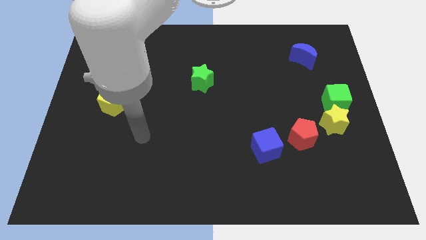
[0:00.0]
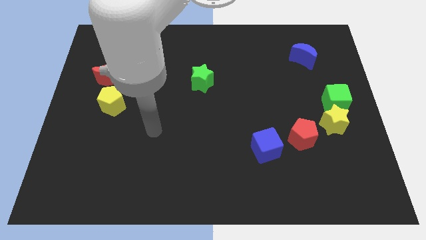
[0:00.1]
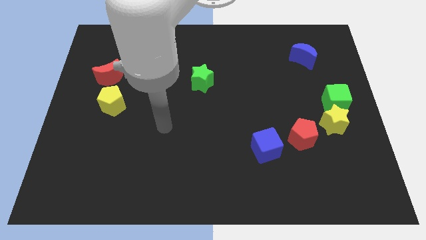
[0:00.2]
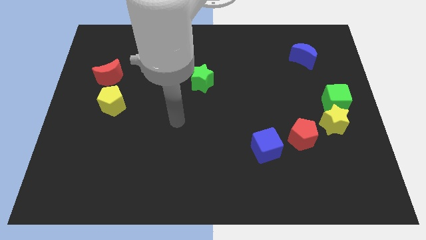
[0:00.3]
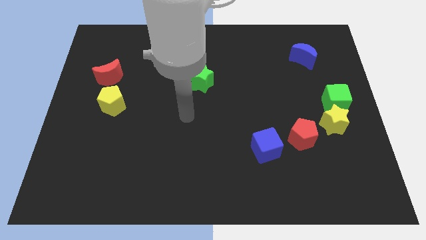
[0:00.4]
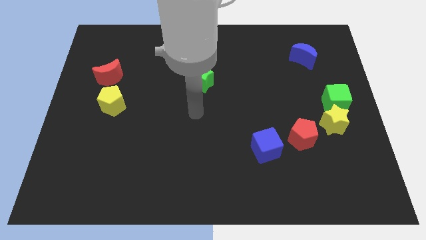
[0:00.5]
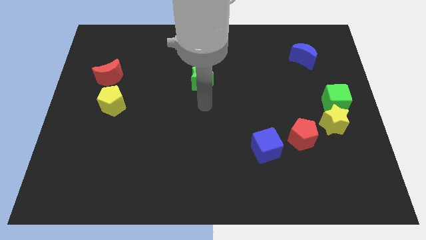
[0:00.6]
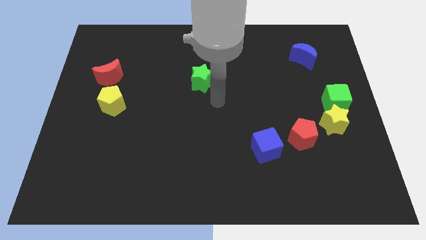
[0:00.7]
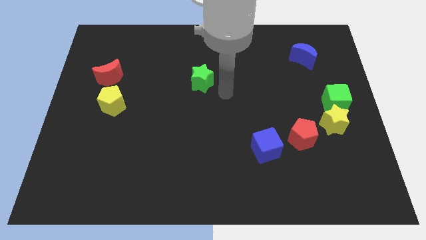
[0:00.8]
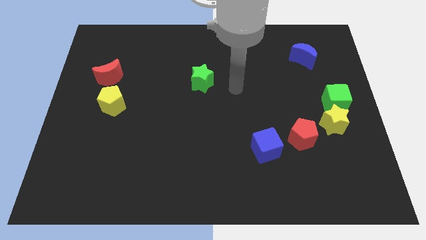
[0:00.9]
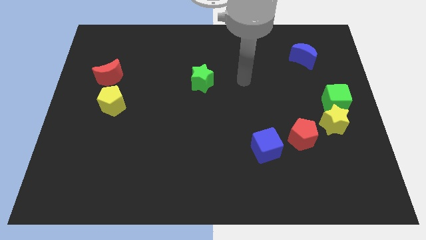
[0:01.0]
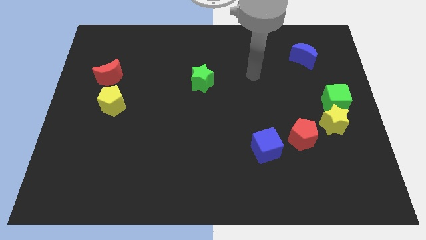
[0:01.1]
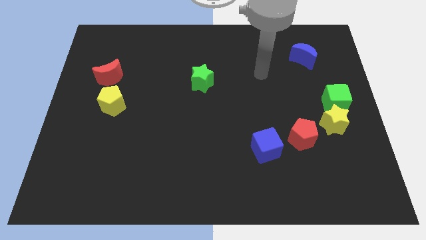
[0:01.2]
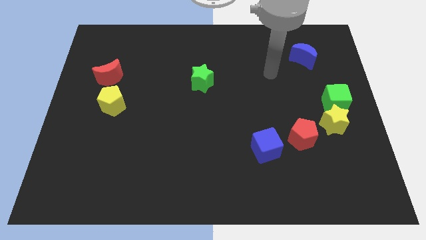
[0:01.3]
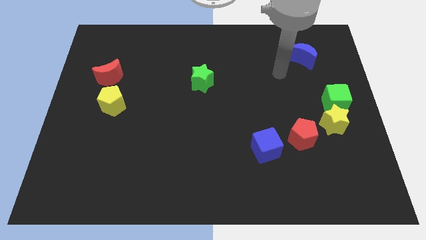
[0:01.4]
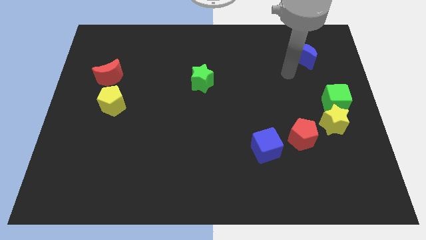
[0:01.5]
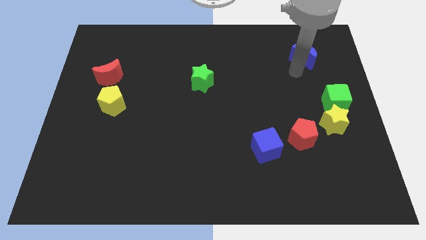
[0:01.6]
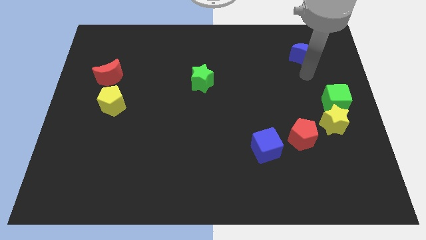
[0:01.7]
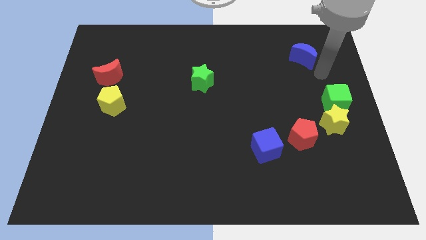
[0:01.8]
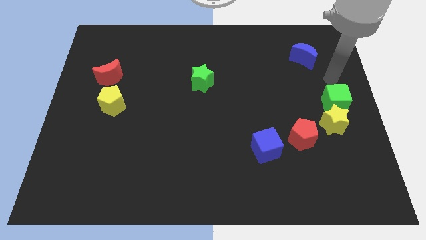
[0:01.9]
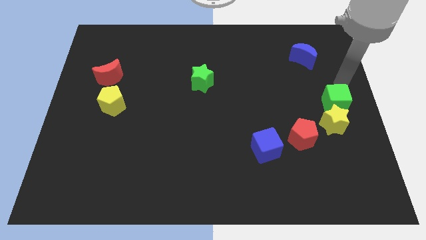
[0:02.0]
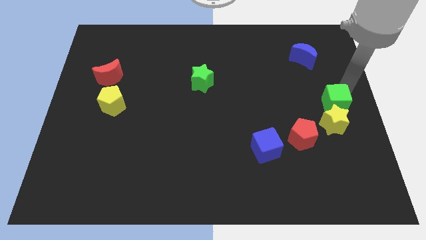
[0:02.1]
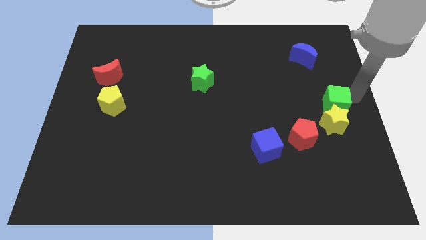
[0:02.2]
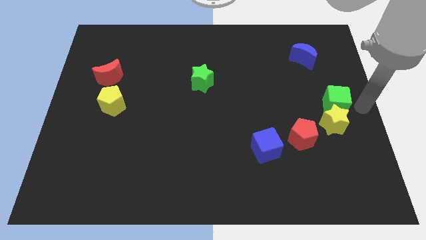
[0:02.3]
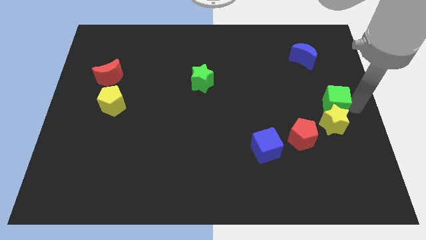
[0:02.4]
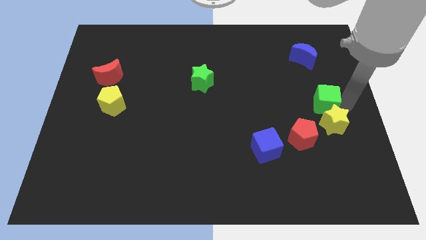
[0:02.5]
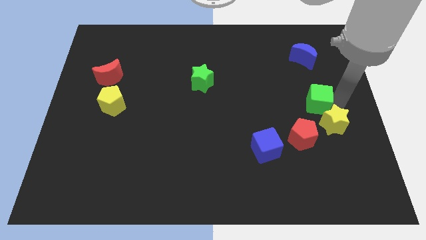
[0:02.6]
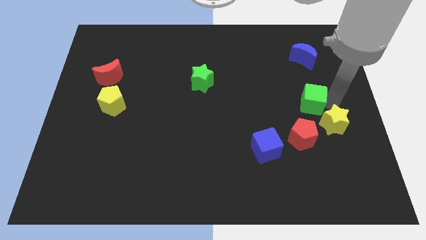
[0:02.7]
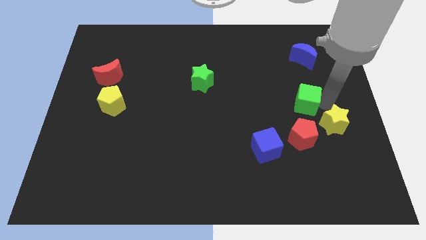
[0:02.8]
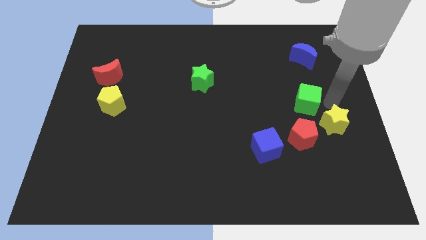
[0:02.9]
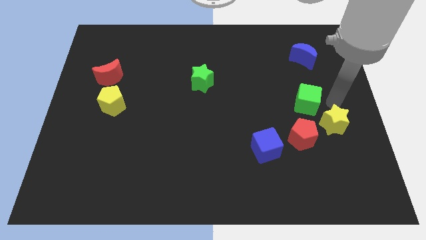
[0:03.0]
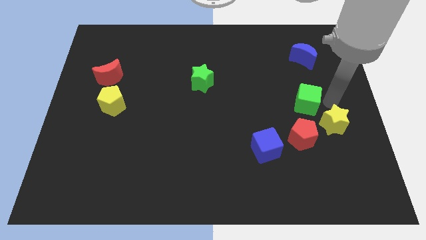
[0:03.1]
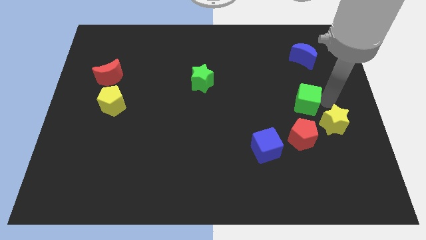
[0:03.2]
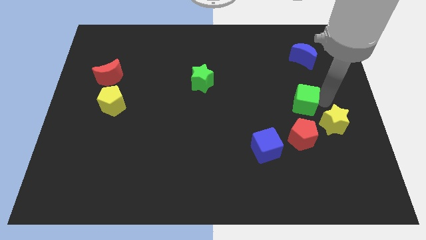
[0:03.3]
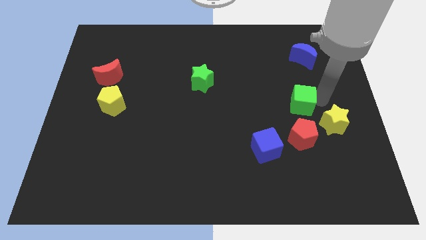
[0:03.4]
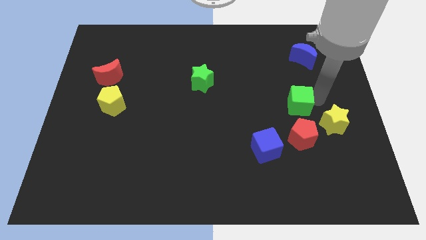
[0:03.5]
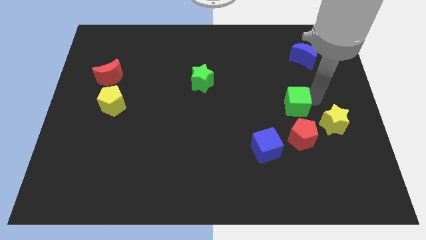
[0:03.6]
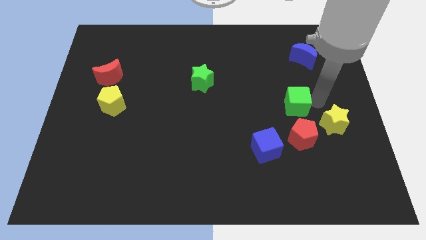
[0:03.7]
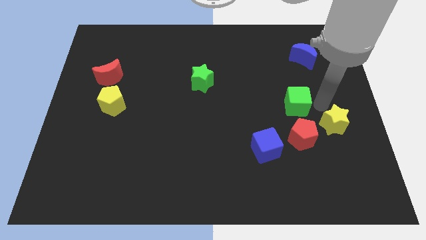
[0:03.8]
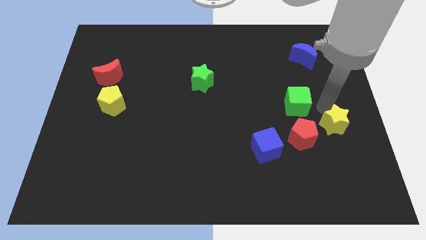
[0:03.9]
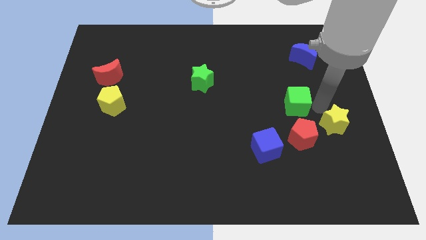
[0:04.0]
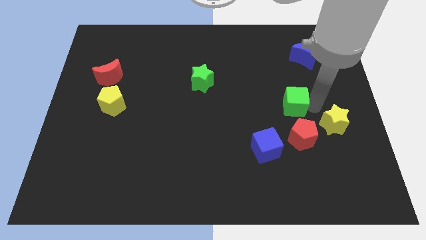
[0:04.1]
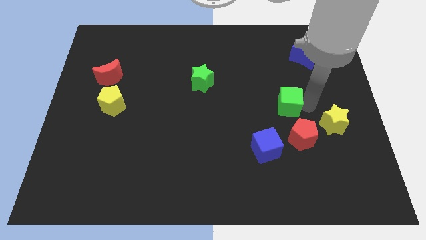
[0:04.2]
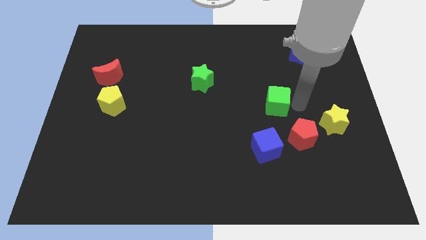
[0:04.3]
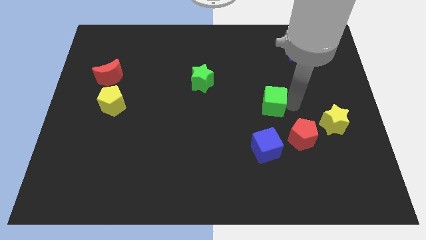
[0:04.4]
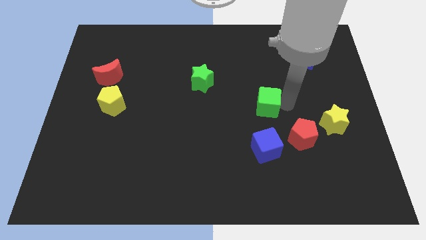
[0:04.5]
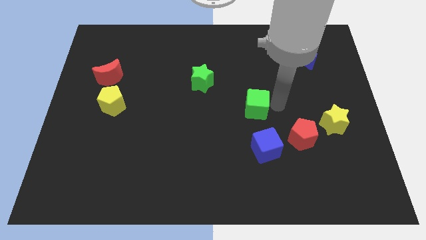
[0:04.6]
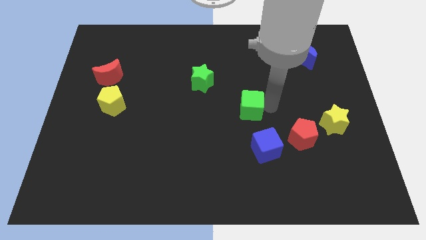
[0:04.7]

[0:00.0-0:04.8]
slide the green cube left

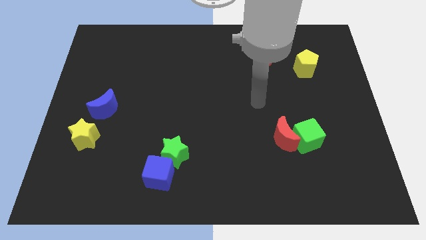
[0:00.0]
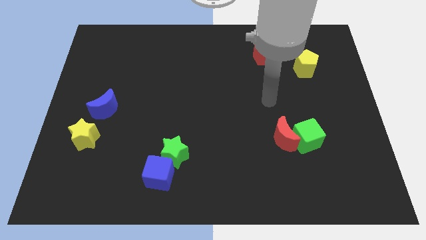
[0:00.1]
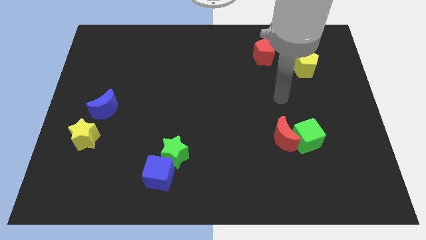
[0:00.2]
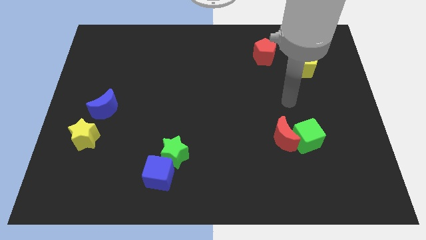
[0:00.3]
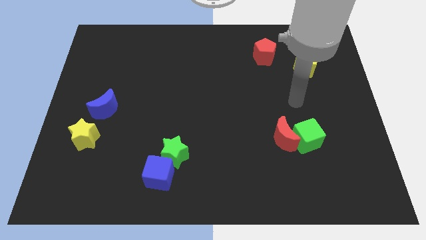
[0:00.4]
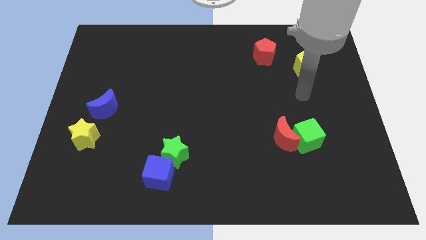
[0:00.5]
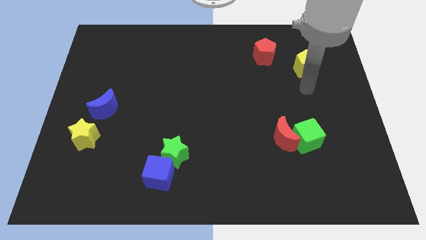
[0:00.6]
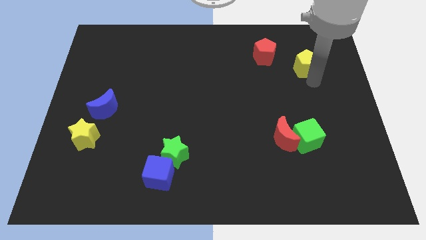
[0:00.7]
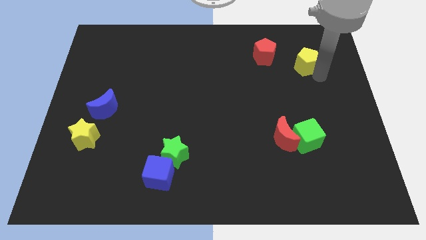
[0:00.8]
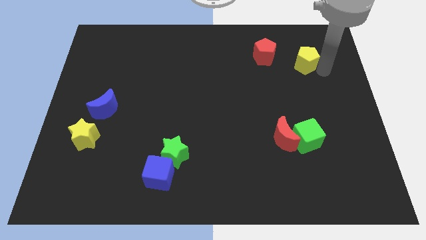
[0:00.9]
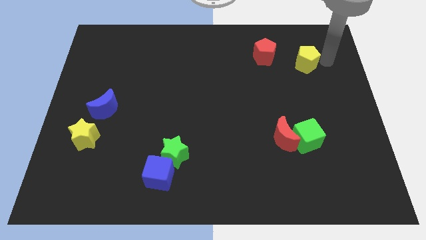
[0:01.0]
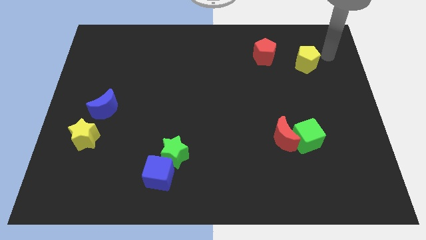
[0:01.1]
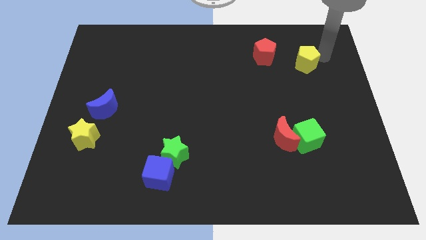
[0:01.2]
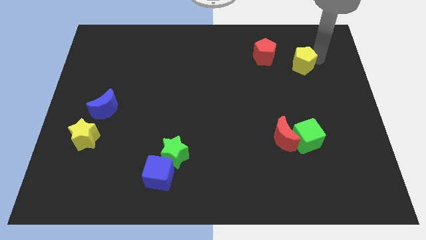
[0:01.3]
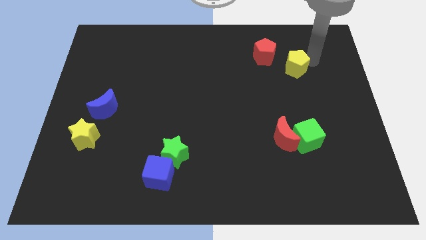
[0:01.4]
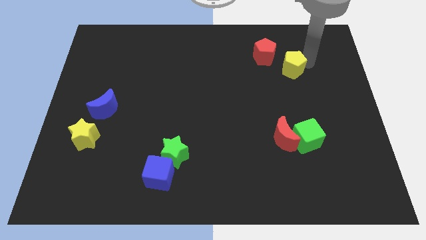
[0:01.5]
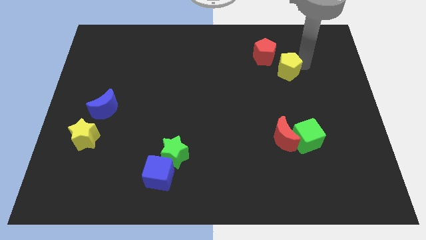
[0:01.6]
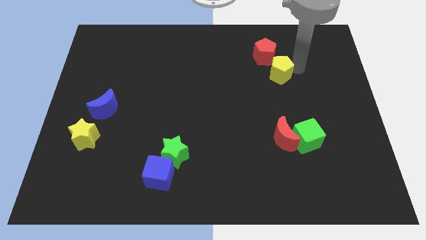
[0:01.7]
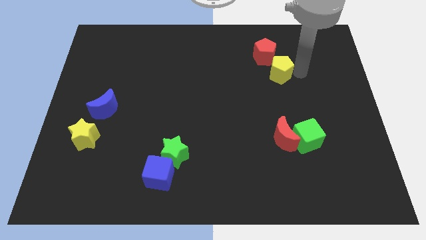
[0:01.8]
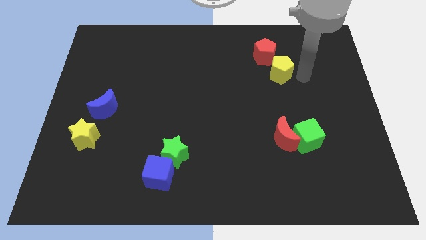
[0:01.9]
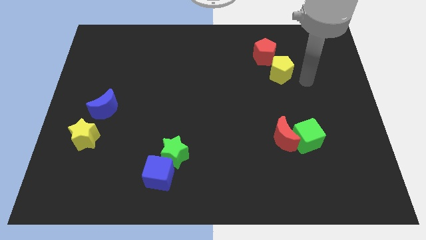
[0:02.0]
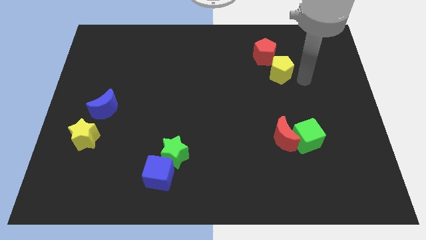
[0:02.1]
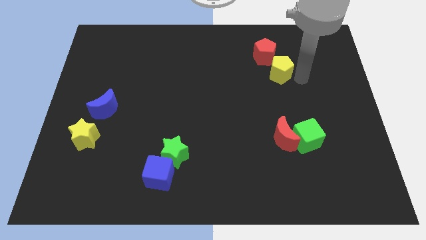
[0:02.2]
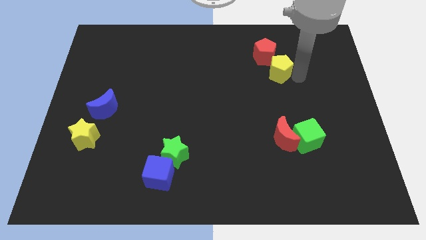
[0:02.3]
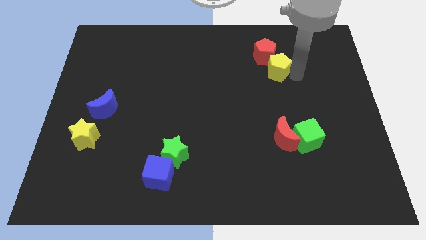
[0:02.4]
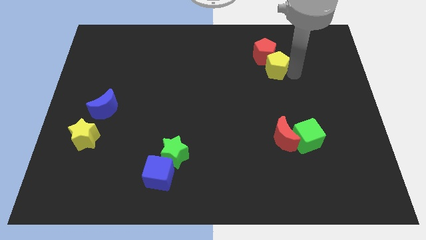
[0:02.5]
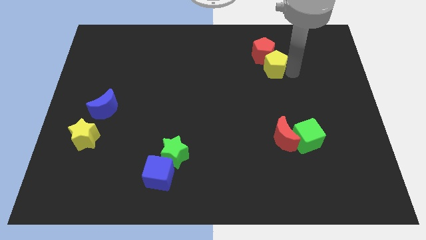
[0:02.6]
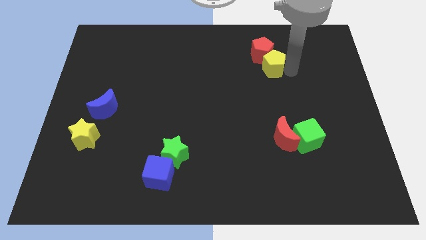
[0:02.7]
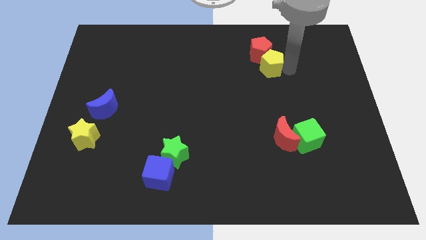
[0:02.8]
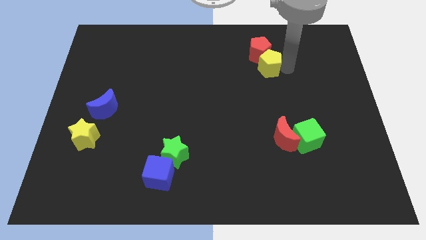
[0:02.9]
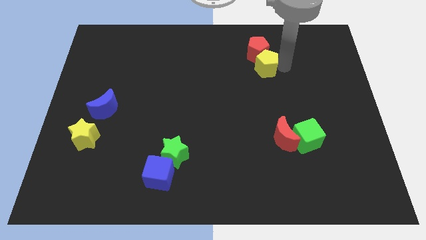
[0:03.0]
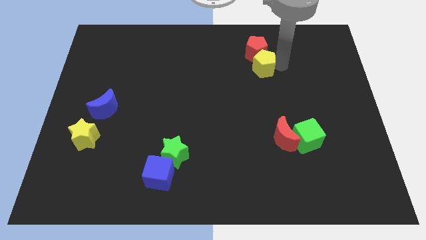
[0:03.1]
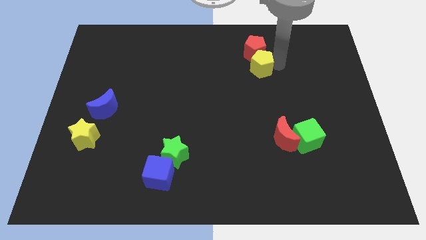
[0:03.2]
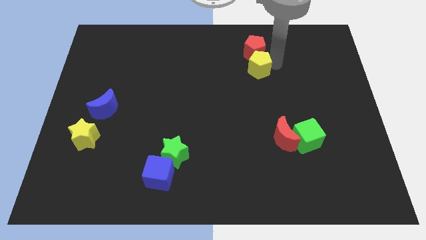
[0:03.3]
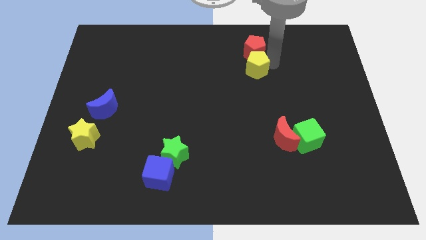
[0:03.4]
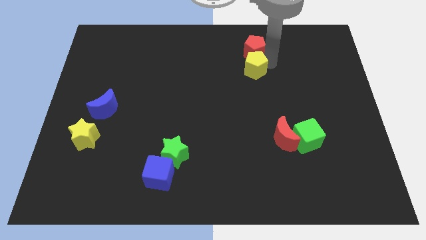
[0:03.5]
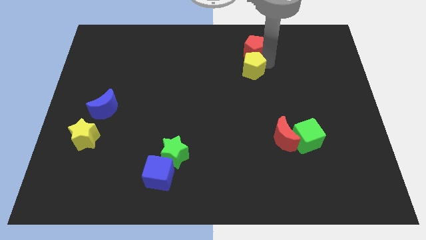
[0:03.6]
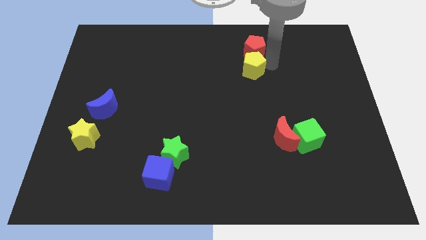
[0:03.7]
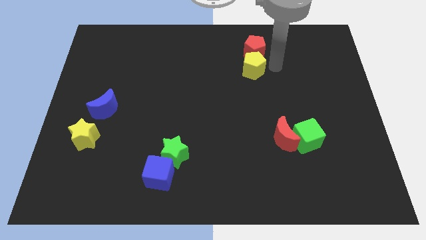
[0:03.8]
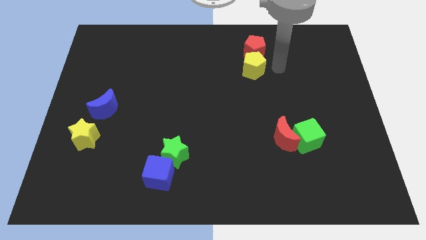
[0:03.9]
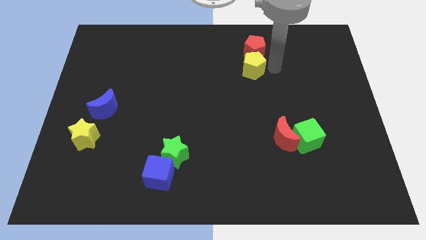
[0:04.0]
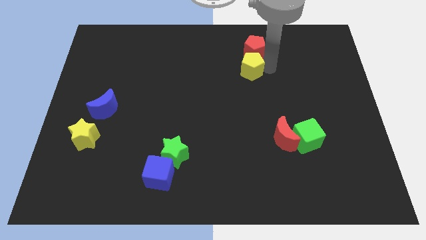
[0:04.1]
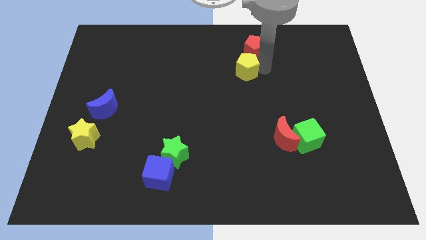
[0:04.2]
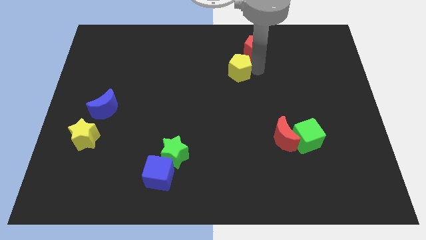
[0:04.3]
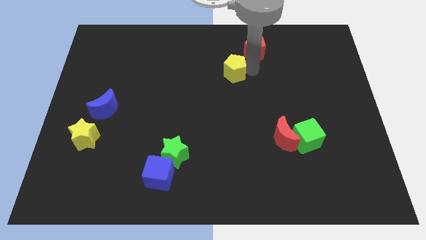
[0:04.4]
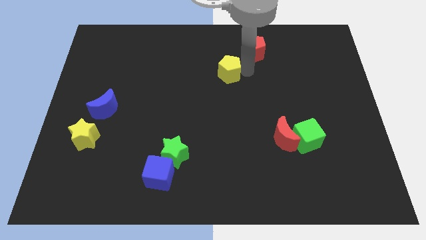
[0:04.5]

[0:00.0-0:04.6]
push the yellow pentagon left
